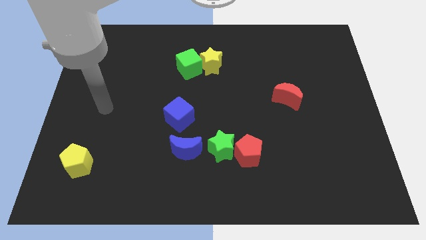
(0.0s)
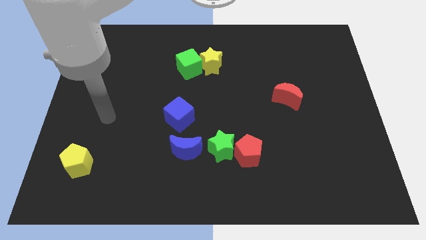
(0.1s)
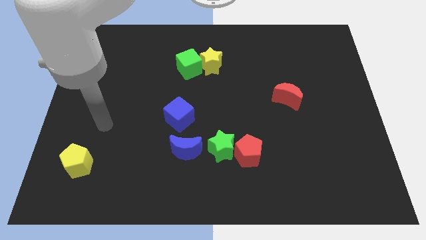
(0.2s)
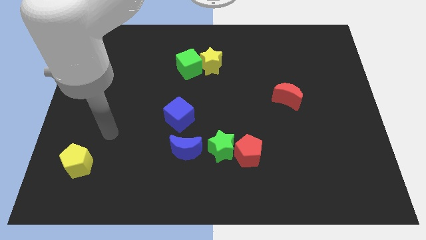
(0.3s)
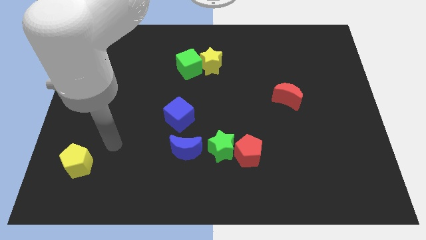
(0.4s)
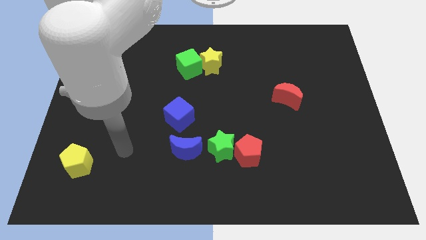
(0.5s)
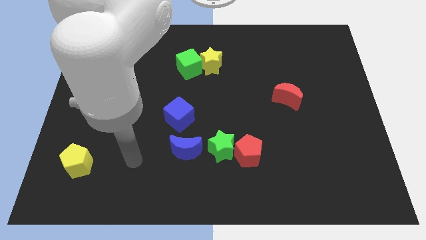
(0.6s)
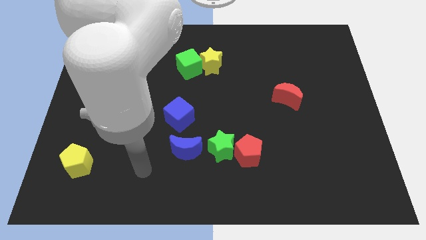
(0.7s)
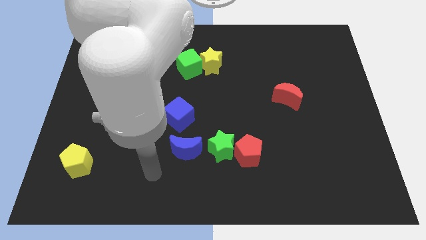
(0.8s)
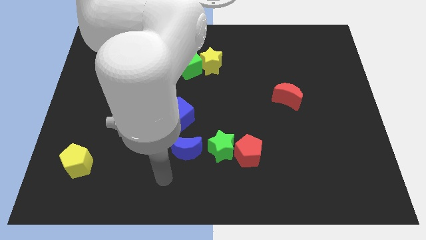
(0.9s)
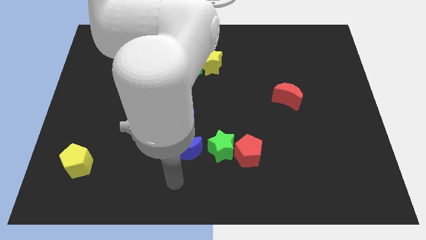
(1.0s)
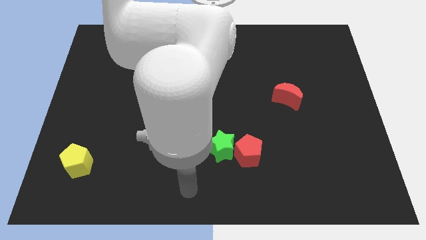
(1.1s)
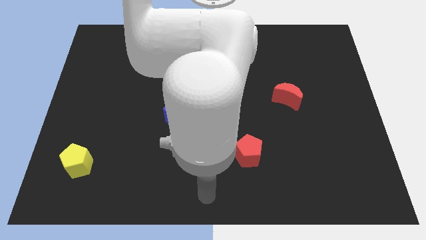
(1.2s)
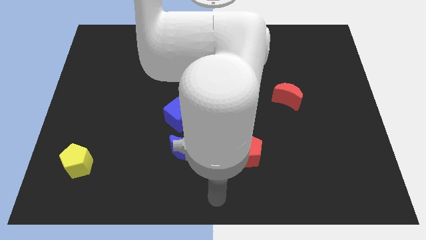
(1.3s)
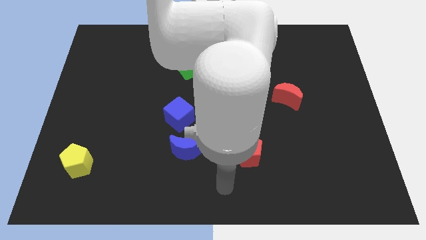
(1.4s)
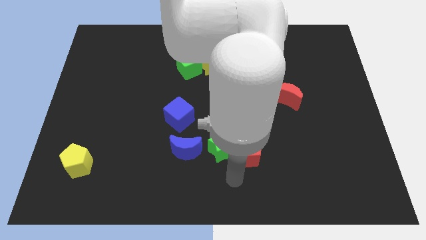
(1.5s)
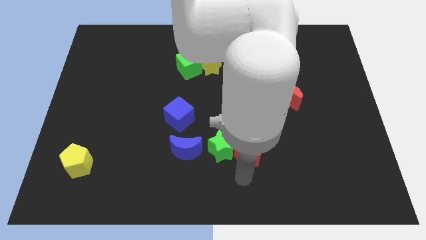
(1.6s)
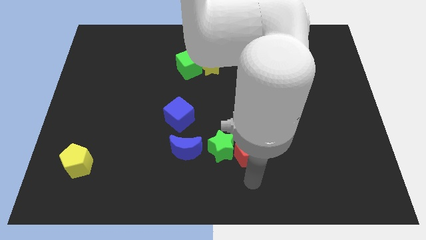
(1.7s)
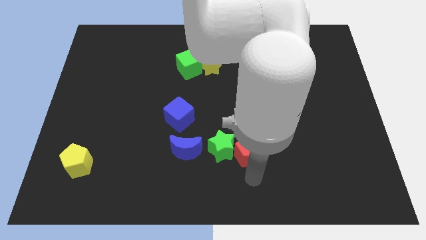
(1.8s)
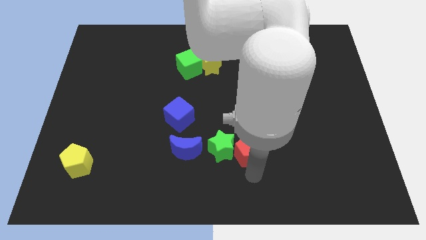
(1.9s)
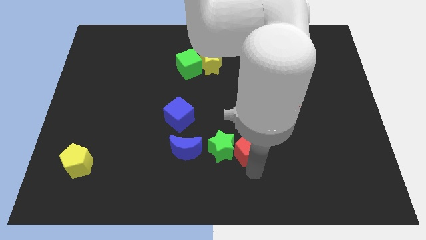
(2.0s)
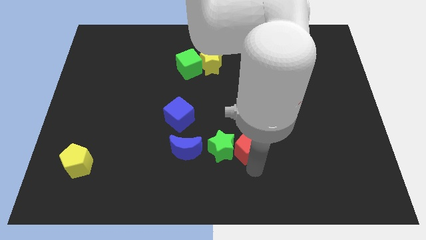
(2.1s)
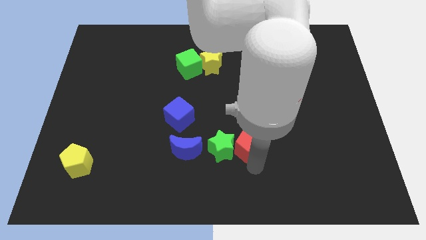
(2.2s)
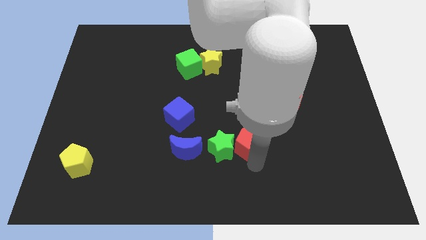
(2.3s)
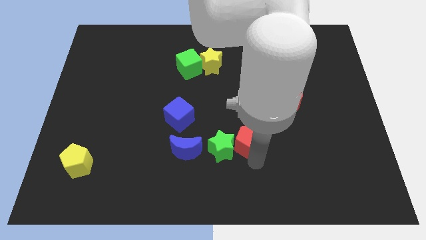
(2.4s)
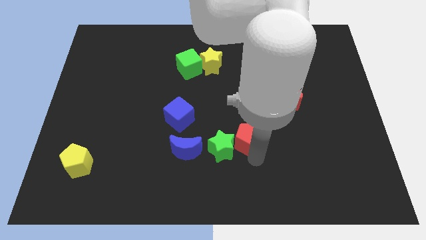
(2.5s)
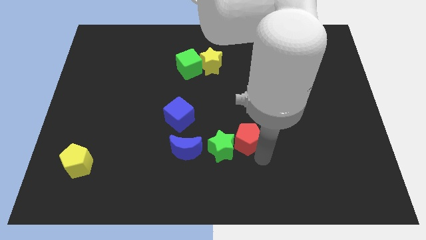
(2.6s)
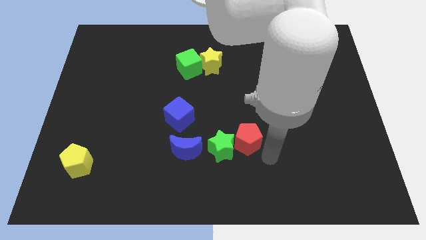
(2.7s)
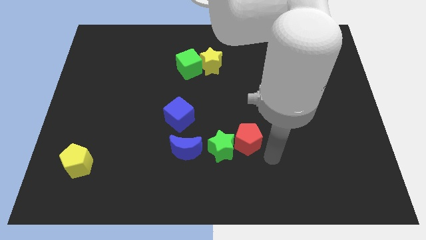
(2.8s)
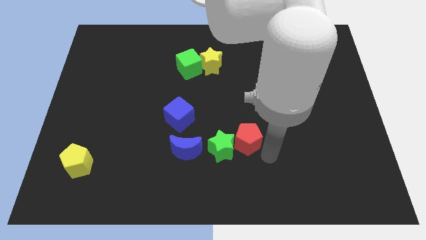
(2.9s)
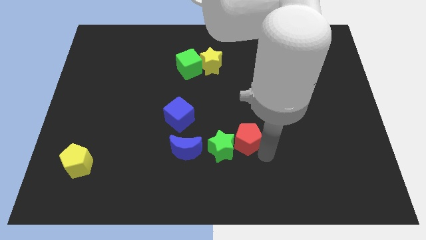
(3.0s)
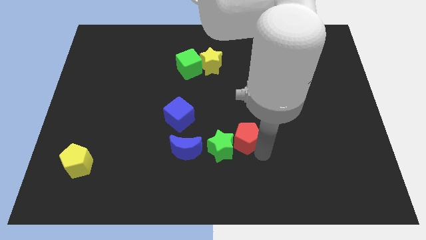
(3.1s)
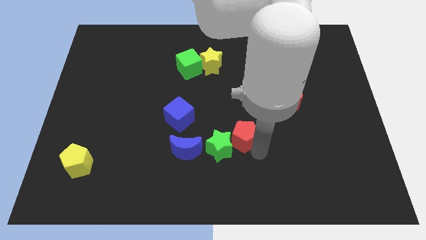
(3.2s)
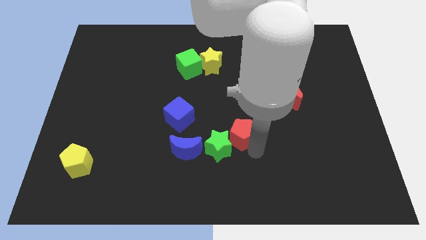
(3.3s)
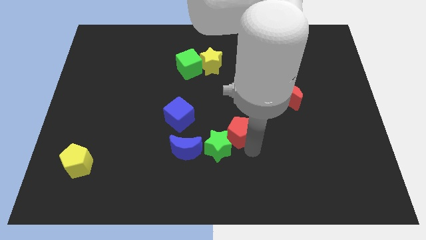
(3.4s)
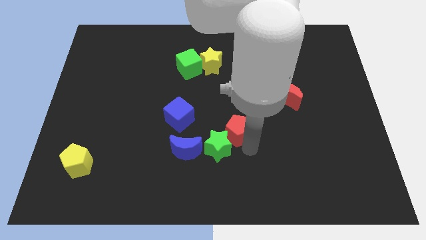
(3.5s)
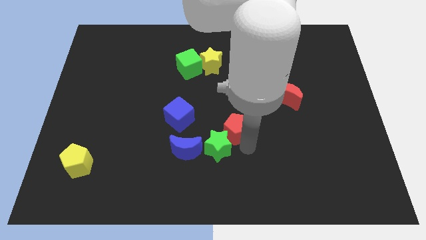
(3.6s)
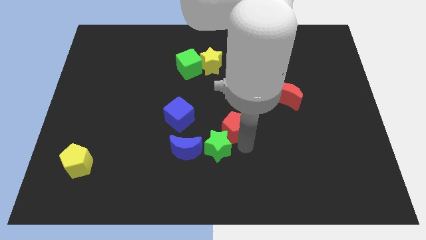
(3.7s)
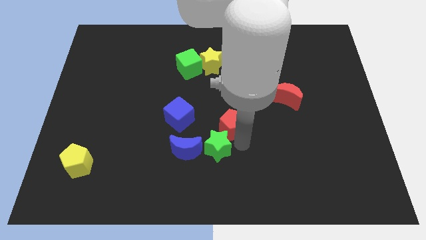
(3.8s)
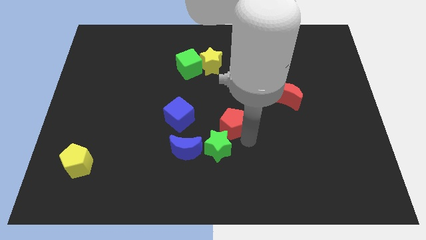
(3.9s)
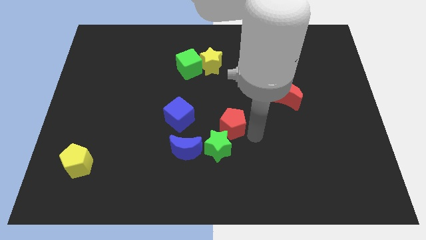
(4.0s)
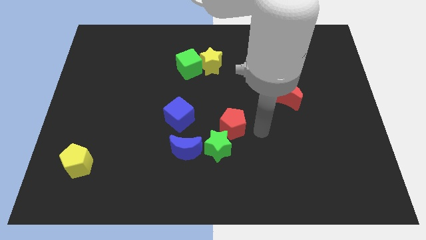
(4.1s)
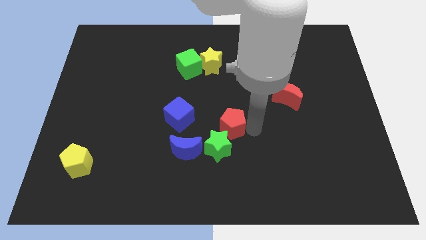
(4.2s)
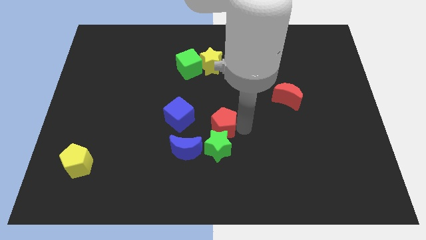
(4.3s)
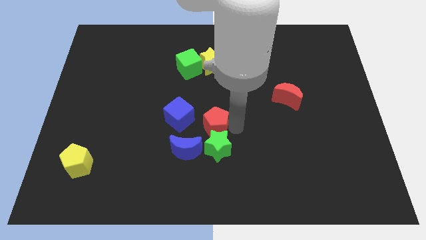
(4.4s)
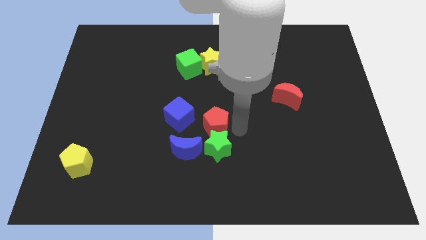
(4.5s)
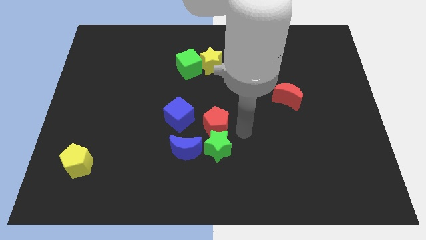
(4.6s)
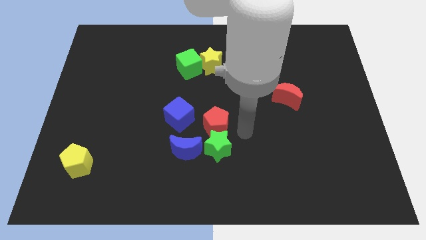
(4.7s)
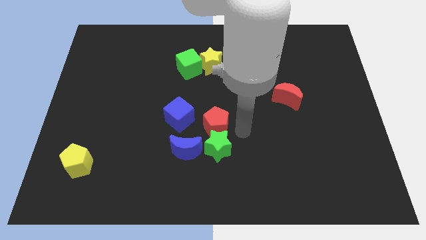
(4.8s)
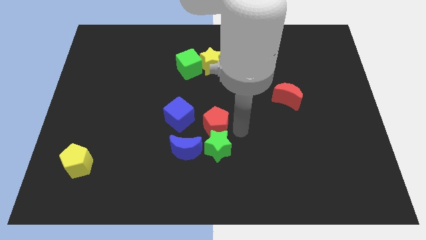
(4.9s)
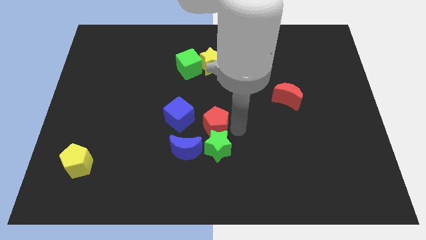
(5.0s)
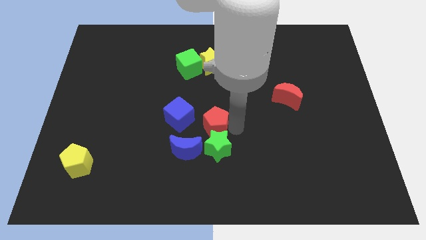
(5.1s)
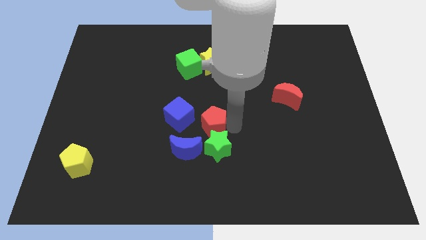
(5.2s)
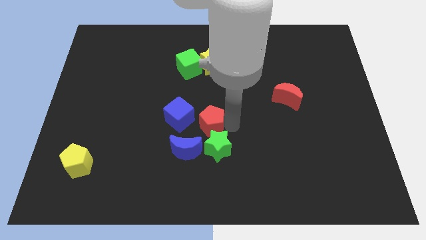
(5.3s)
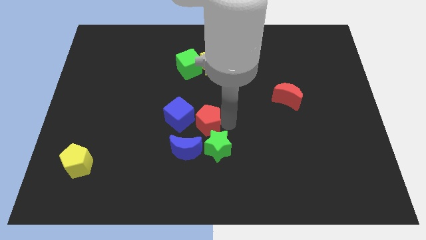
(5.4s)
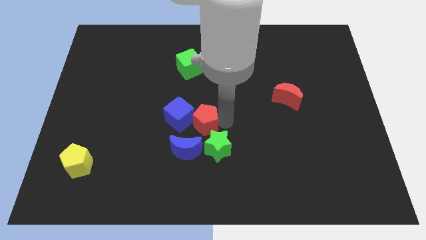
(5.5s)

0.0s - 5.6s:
put the red pentagon to the blue cube

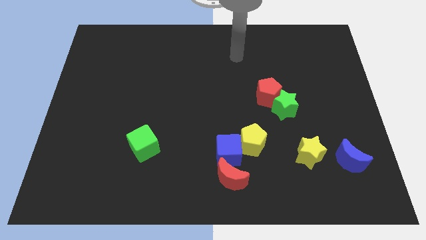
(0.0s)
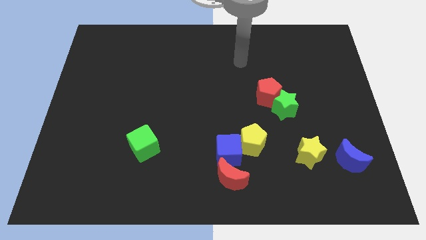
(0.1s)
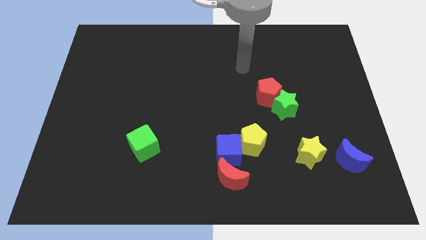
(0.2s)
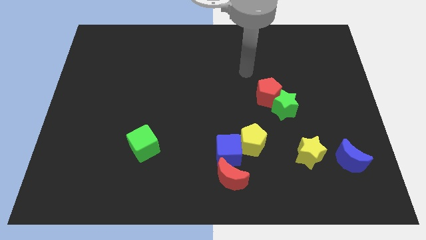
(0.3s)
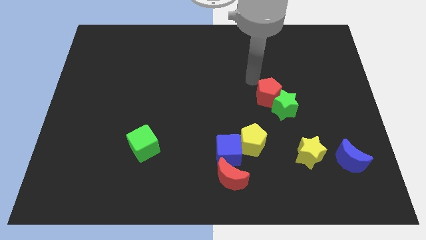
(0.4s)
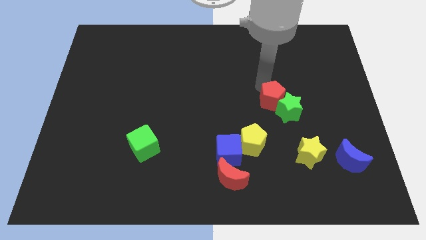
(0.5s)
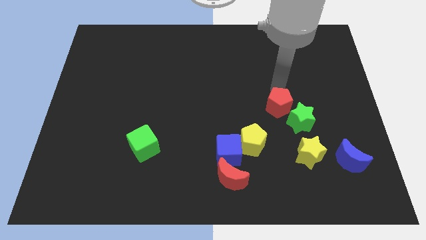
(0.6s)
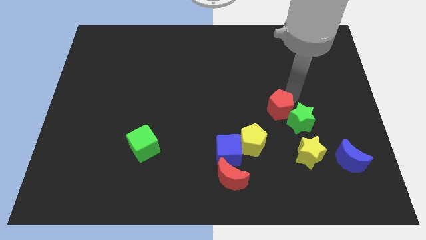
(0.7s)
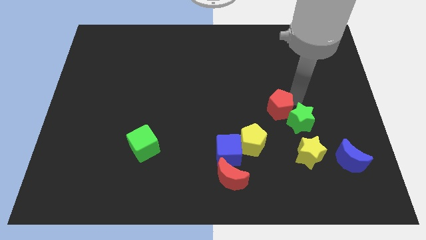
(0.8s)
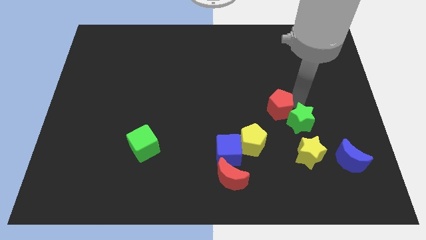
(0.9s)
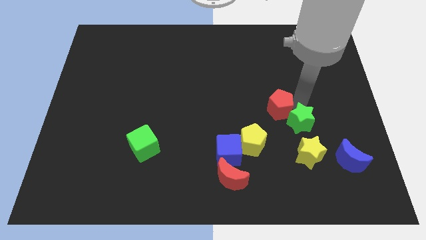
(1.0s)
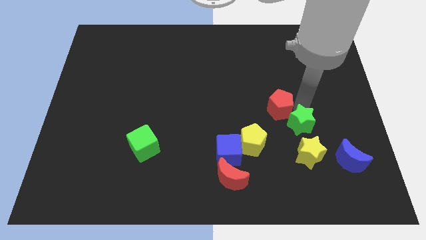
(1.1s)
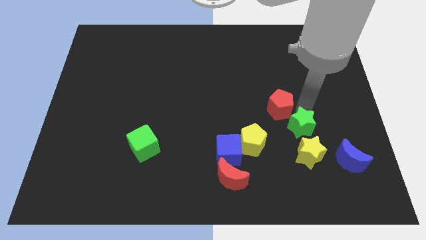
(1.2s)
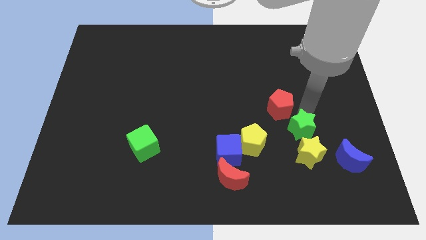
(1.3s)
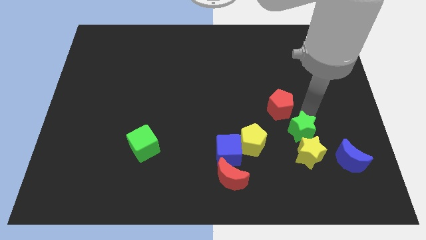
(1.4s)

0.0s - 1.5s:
push the green star towards the yellow star
